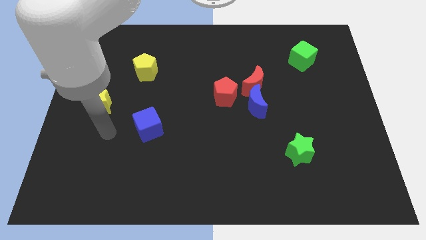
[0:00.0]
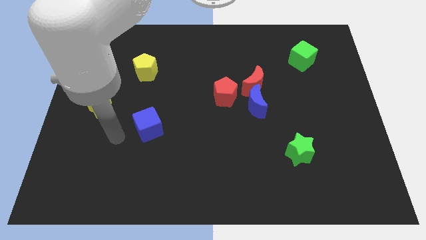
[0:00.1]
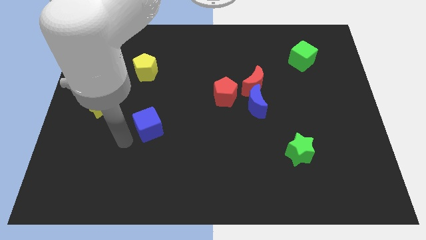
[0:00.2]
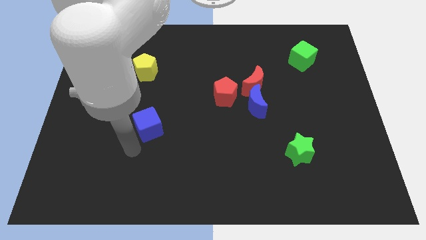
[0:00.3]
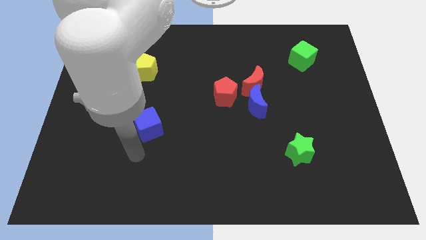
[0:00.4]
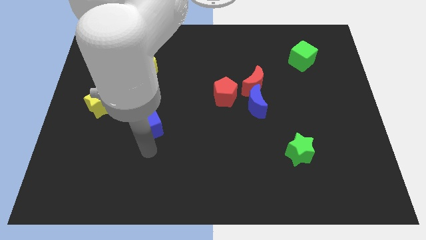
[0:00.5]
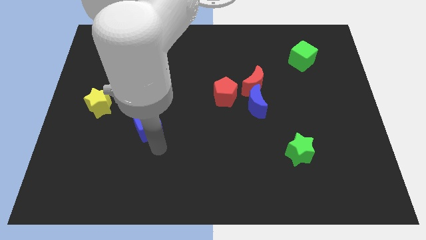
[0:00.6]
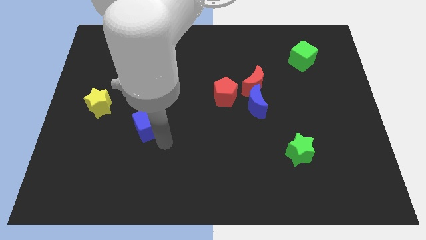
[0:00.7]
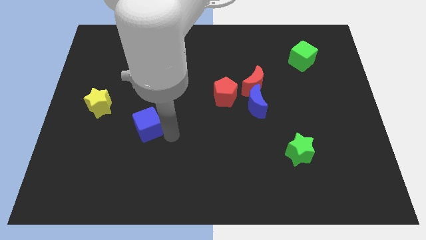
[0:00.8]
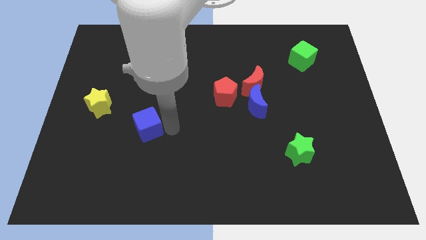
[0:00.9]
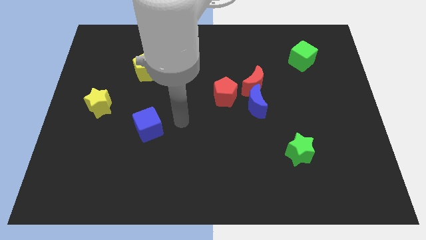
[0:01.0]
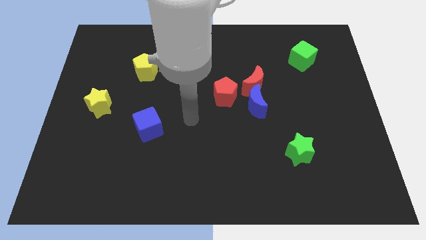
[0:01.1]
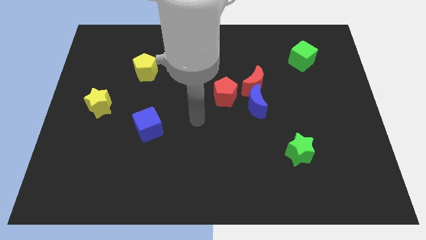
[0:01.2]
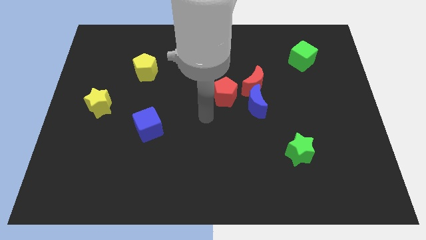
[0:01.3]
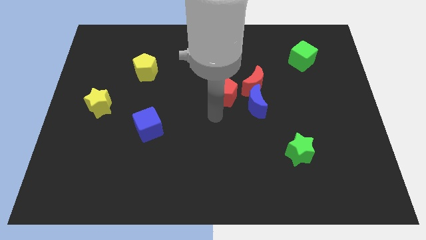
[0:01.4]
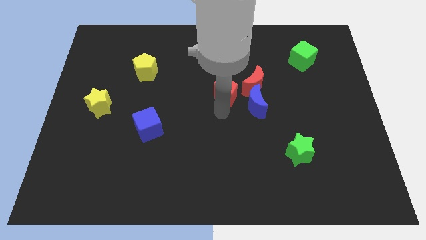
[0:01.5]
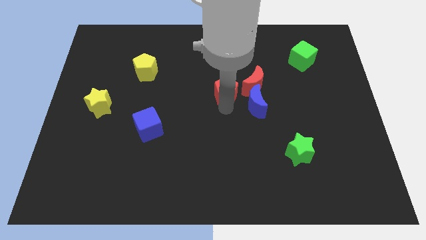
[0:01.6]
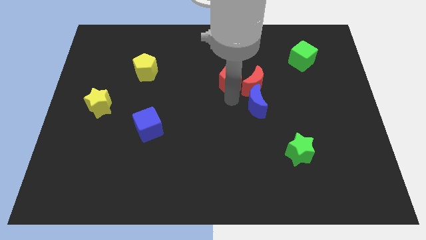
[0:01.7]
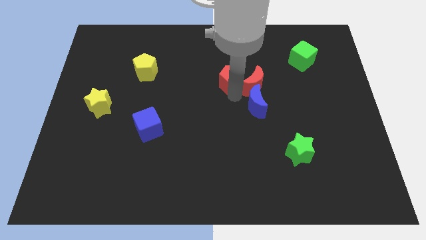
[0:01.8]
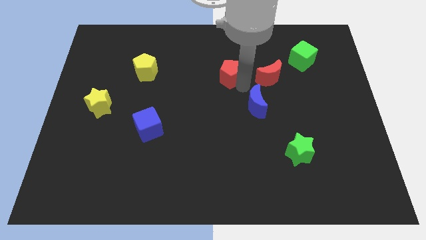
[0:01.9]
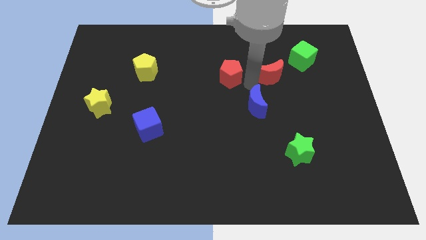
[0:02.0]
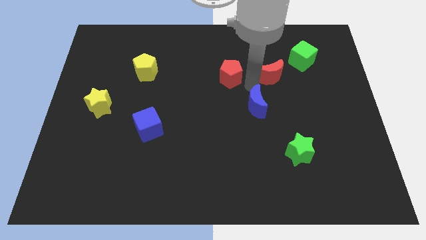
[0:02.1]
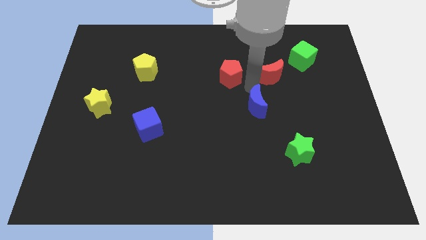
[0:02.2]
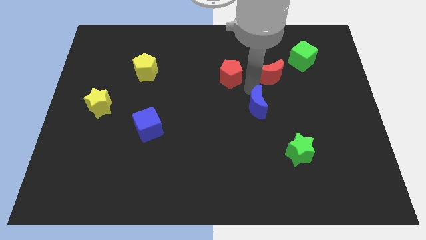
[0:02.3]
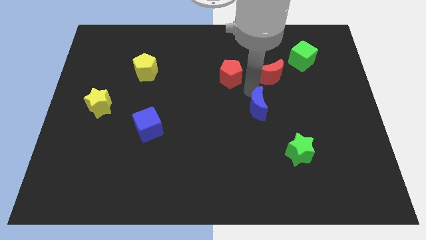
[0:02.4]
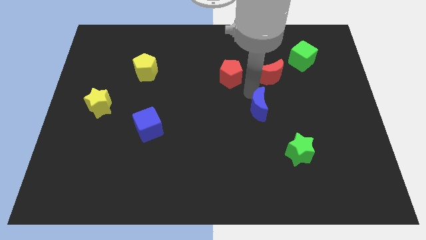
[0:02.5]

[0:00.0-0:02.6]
separate the blue moon from the red moon and red pentagon

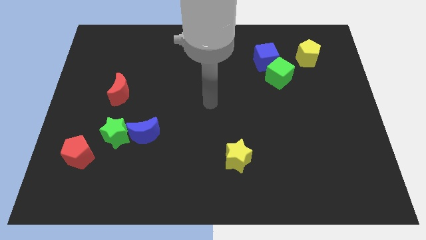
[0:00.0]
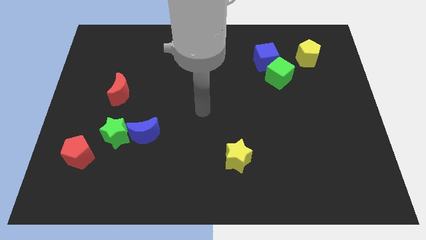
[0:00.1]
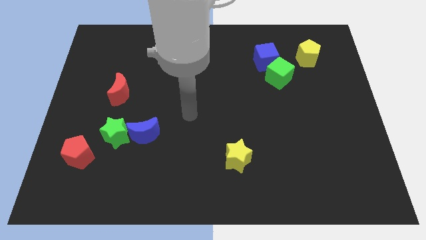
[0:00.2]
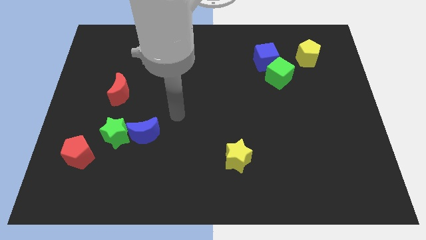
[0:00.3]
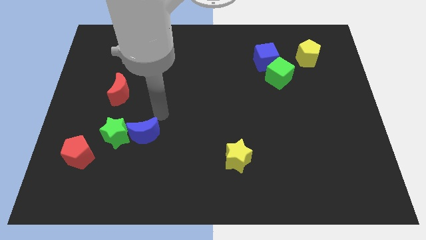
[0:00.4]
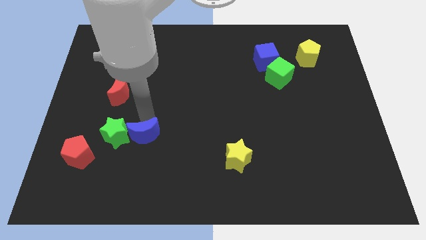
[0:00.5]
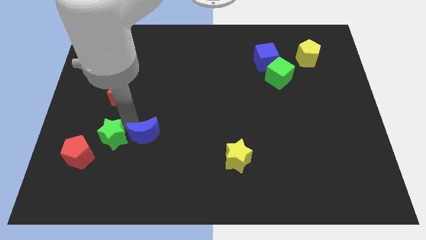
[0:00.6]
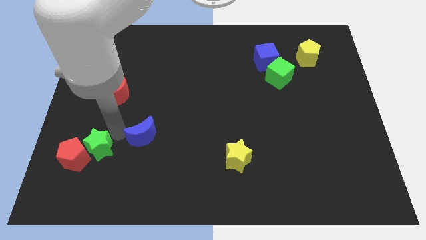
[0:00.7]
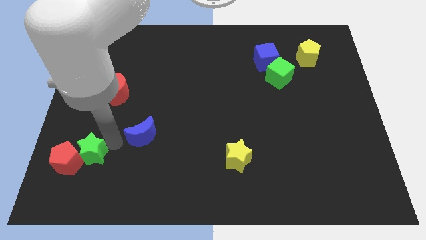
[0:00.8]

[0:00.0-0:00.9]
pull the blue moon apart from the green star

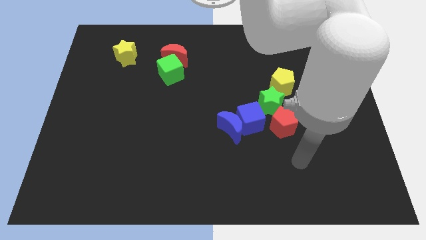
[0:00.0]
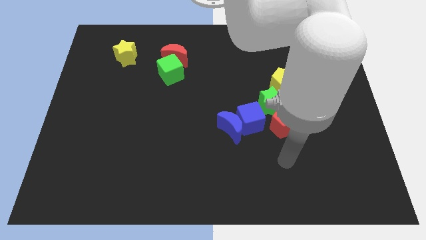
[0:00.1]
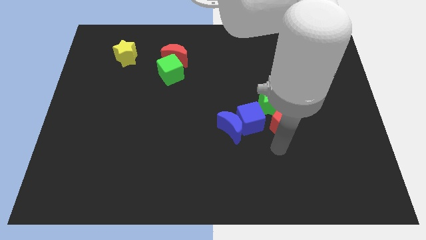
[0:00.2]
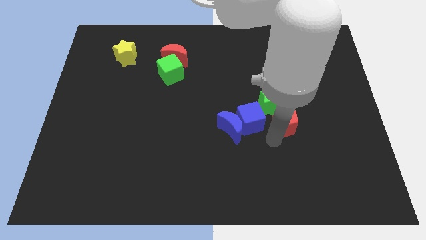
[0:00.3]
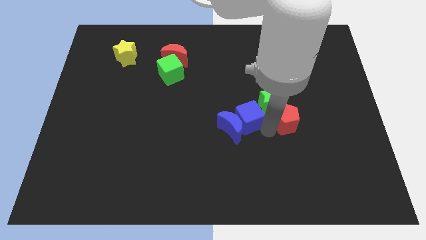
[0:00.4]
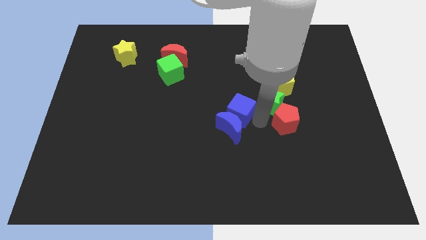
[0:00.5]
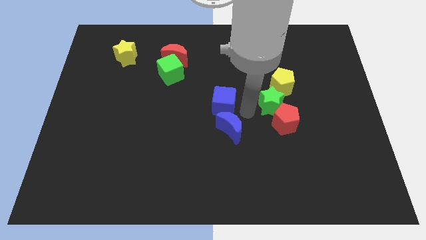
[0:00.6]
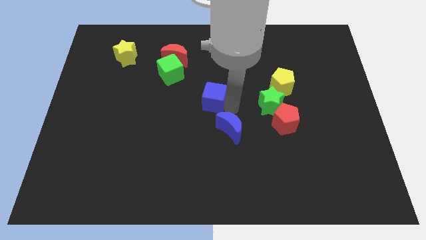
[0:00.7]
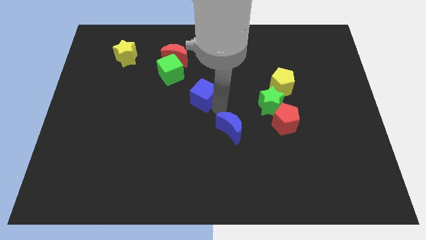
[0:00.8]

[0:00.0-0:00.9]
separate the blue moon from the blue cube

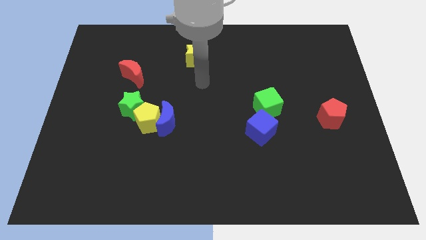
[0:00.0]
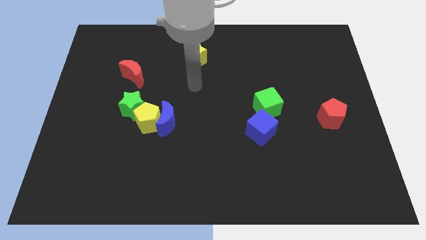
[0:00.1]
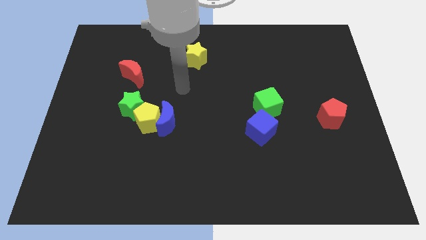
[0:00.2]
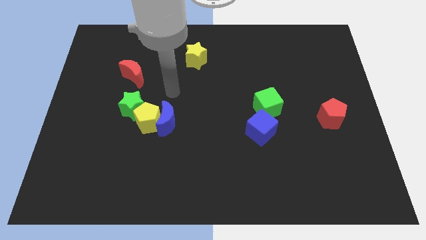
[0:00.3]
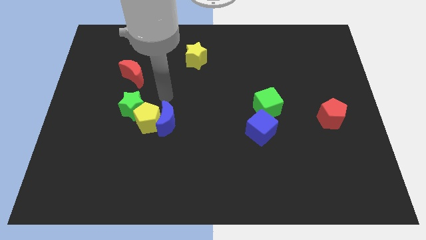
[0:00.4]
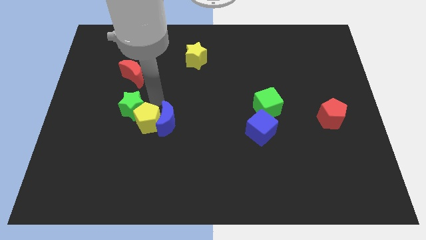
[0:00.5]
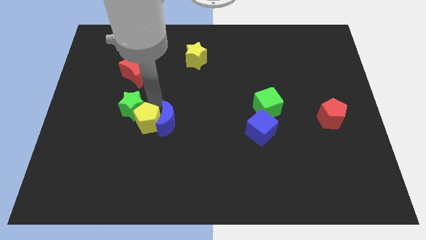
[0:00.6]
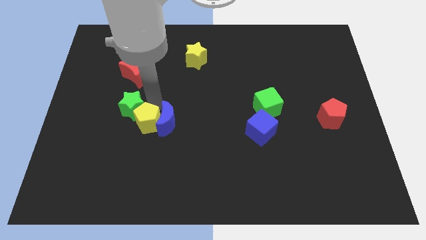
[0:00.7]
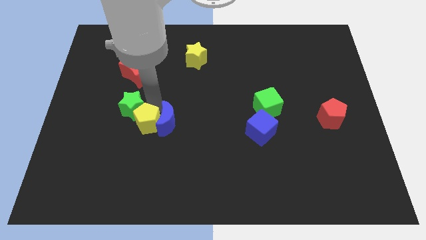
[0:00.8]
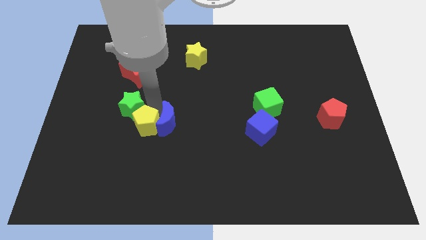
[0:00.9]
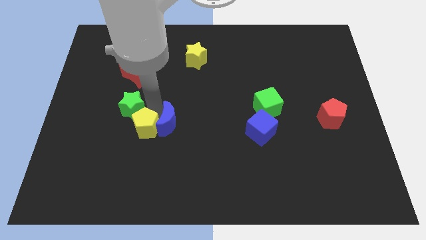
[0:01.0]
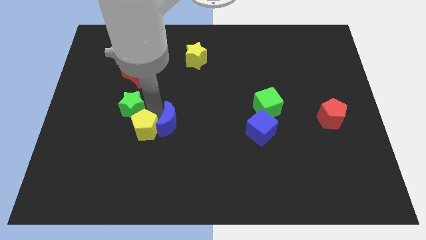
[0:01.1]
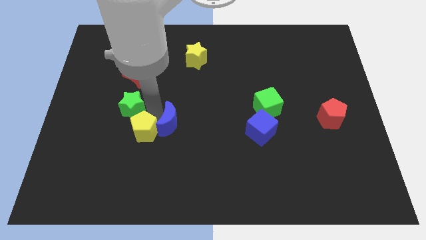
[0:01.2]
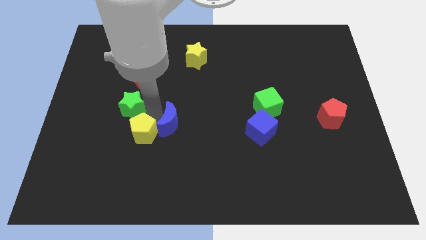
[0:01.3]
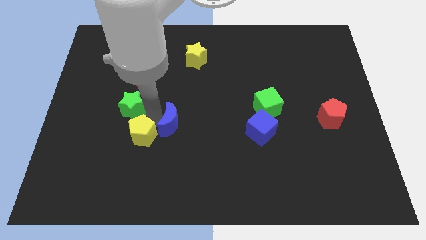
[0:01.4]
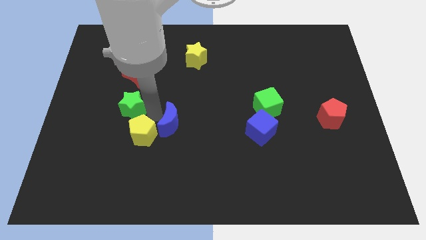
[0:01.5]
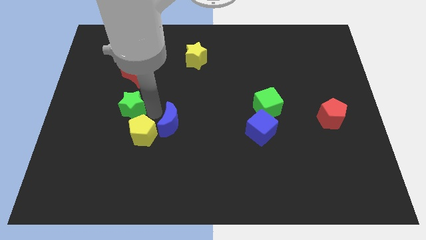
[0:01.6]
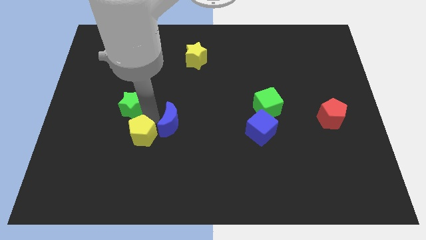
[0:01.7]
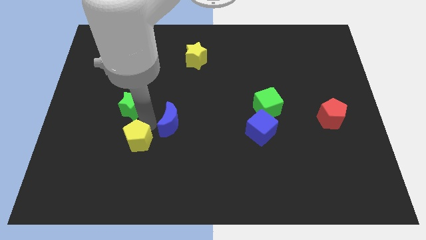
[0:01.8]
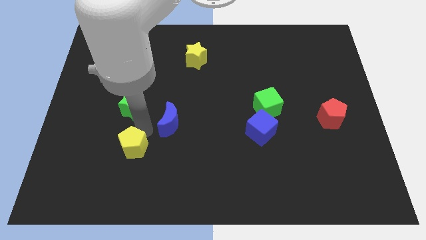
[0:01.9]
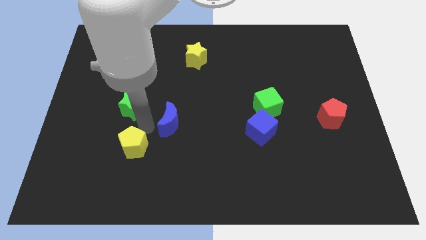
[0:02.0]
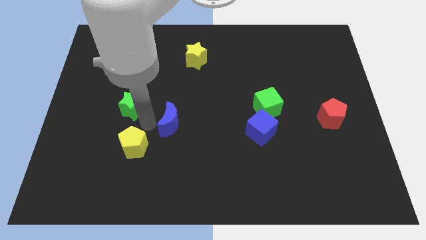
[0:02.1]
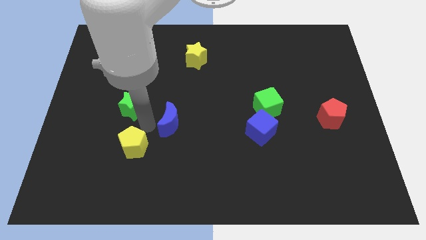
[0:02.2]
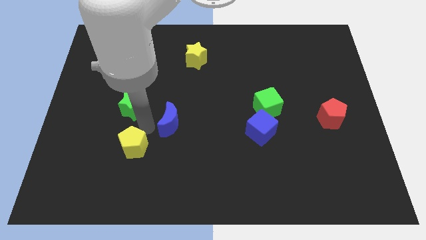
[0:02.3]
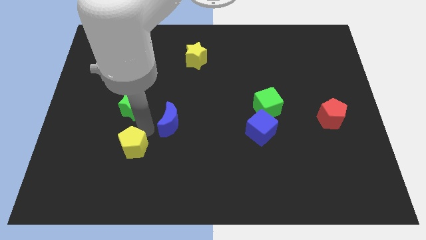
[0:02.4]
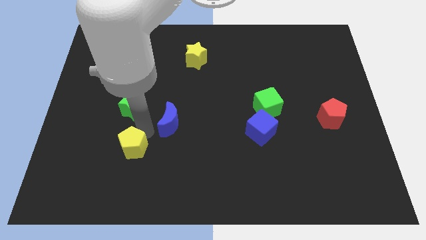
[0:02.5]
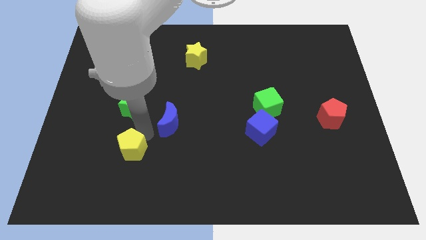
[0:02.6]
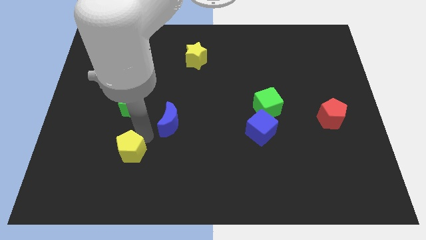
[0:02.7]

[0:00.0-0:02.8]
move the yellow pentagon away from the blue moon and green star

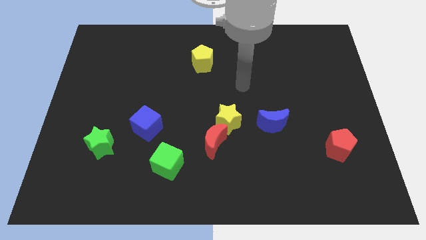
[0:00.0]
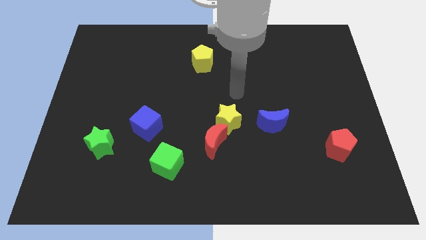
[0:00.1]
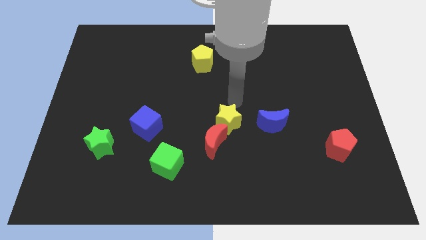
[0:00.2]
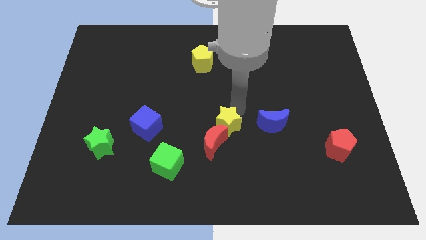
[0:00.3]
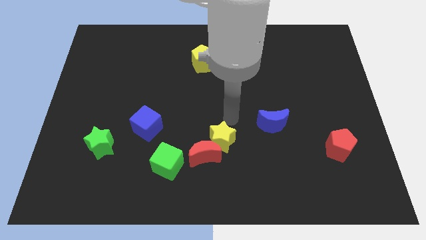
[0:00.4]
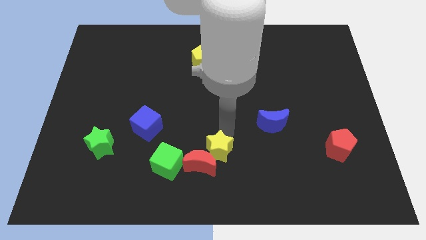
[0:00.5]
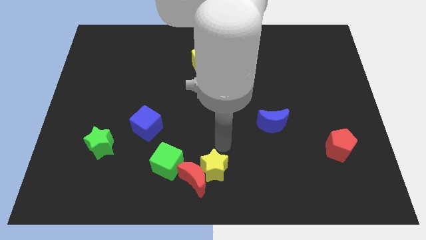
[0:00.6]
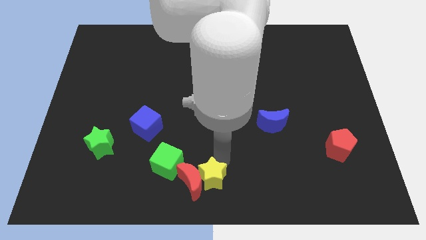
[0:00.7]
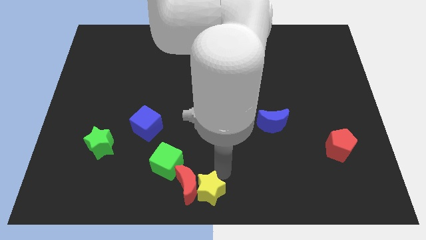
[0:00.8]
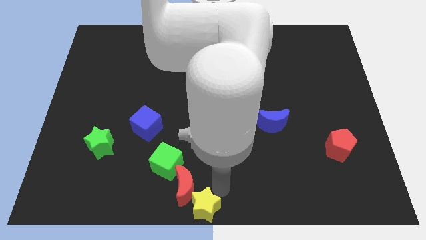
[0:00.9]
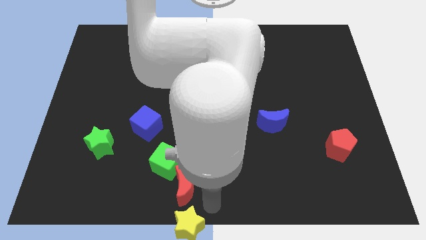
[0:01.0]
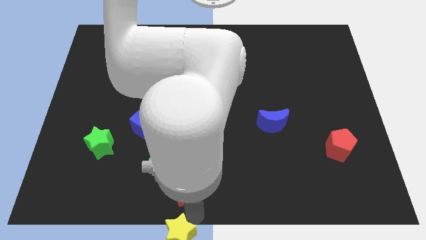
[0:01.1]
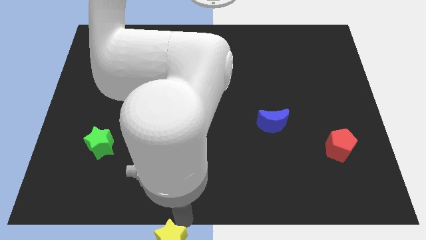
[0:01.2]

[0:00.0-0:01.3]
move the red moon away from the yellow star

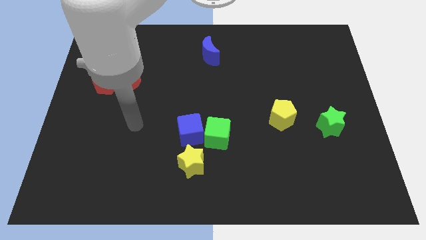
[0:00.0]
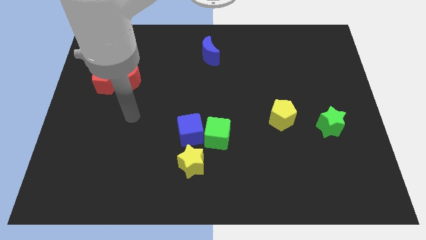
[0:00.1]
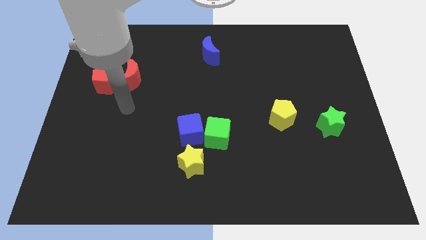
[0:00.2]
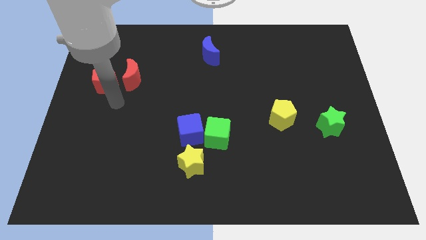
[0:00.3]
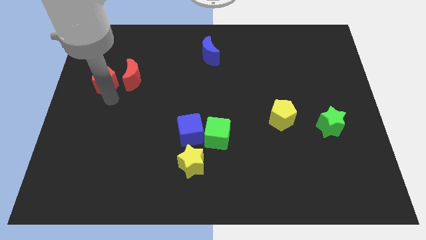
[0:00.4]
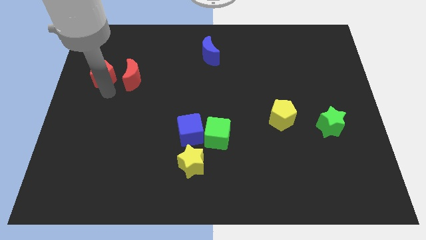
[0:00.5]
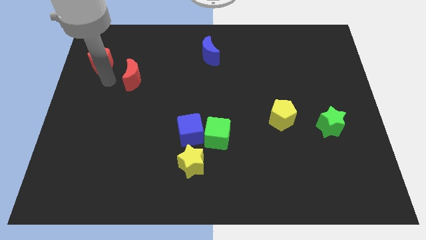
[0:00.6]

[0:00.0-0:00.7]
separate the red moon from the red pentagon
